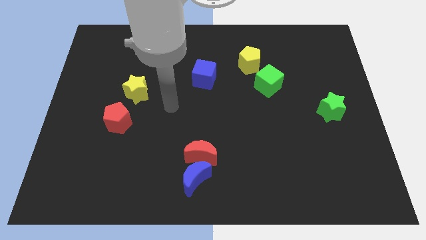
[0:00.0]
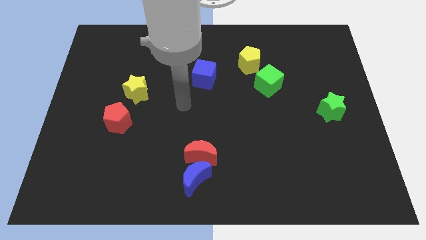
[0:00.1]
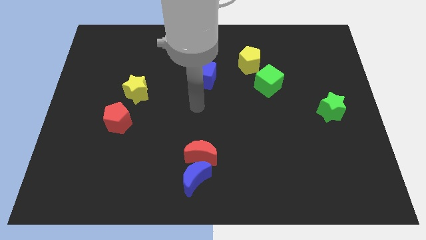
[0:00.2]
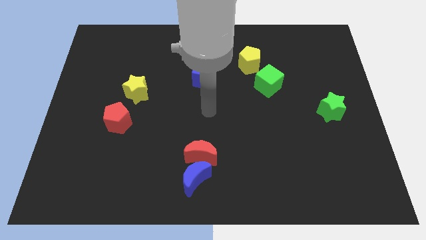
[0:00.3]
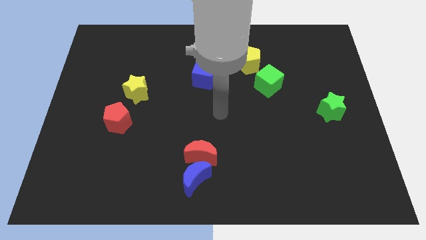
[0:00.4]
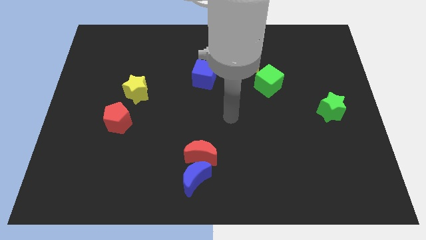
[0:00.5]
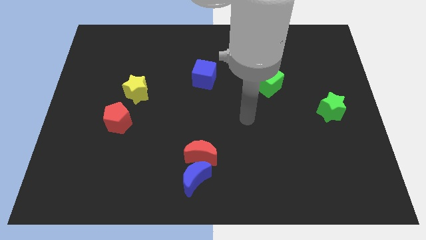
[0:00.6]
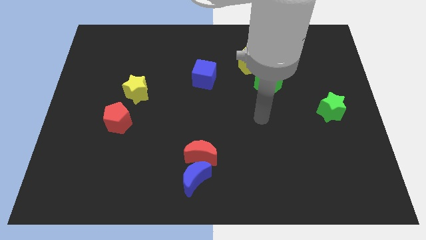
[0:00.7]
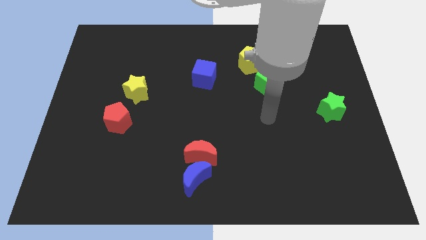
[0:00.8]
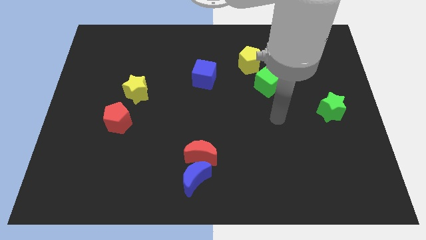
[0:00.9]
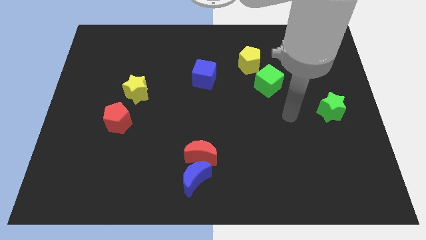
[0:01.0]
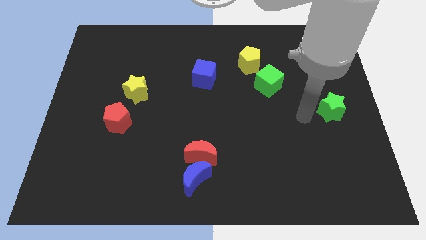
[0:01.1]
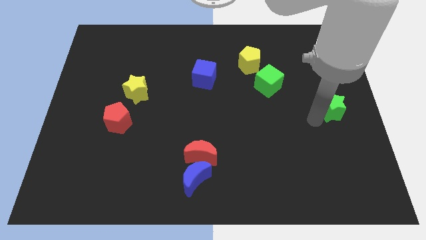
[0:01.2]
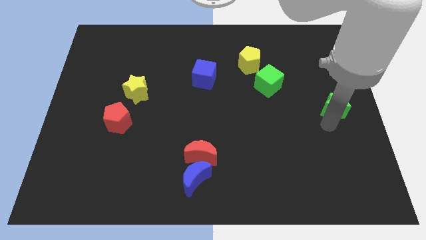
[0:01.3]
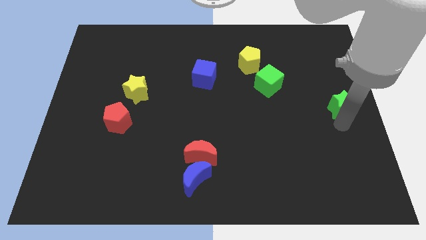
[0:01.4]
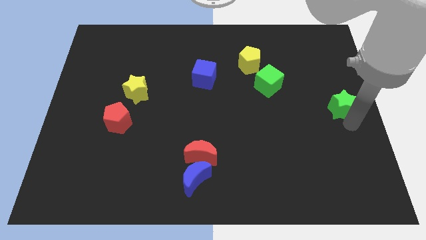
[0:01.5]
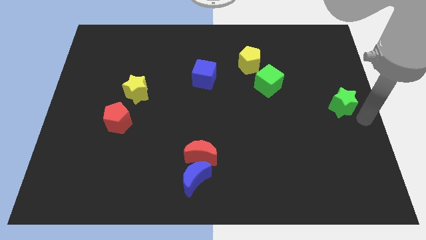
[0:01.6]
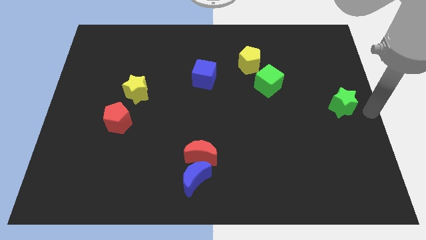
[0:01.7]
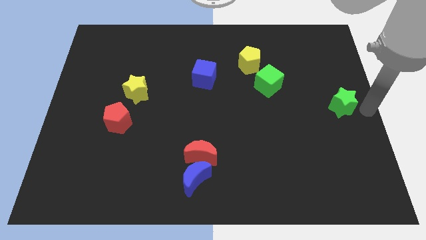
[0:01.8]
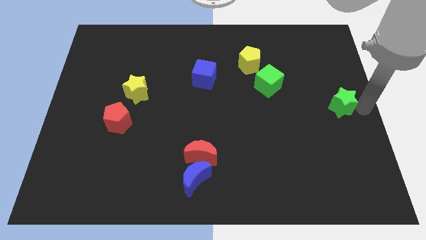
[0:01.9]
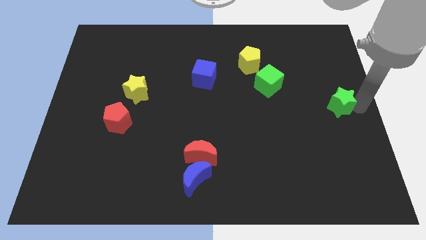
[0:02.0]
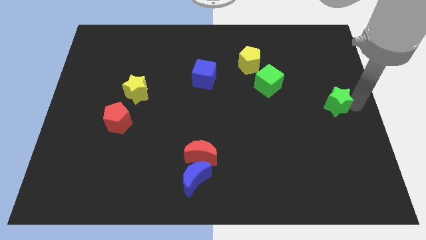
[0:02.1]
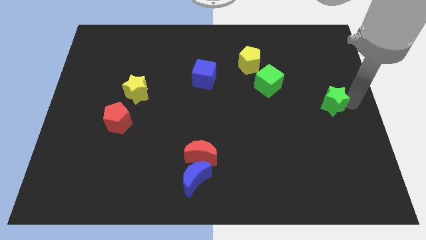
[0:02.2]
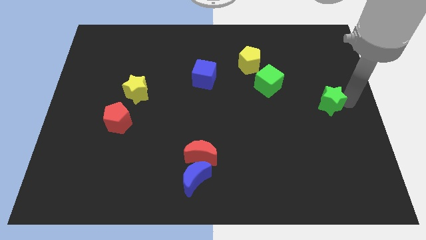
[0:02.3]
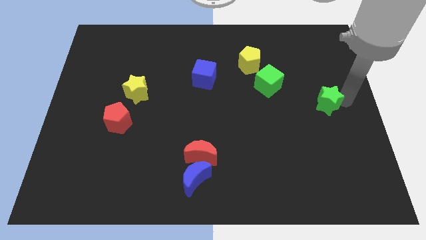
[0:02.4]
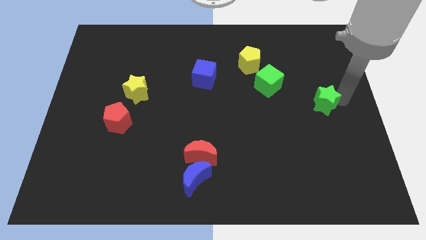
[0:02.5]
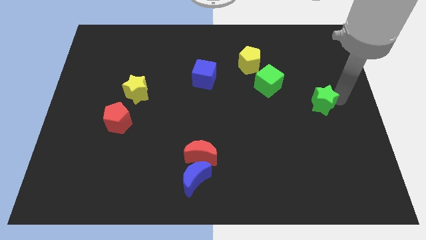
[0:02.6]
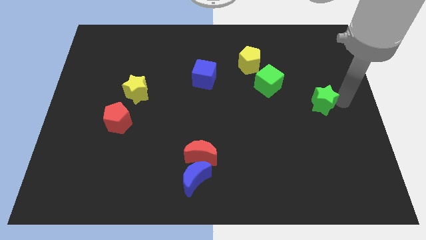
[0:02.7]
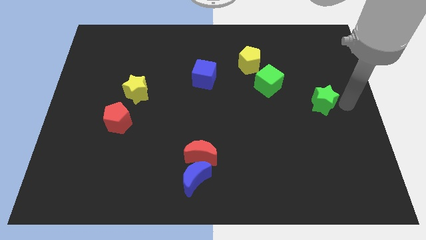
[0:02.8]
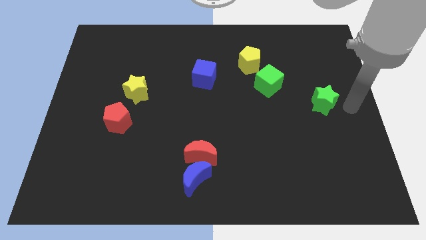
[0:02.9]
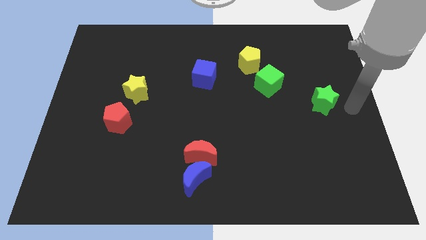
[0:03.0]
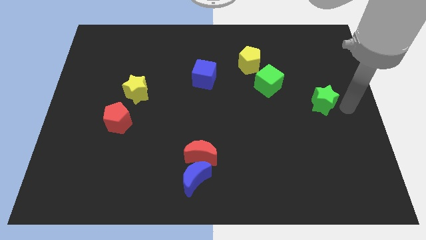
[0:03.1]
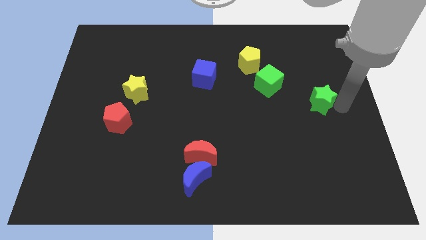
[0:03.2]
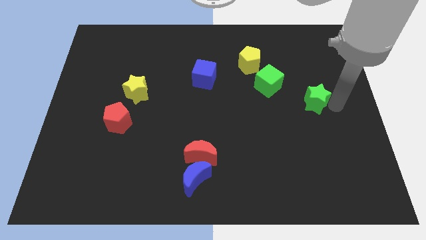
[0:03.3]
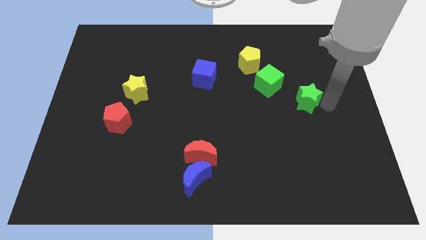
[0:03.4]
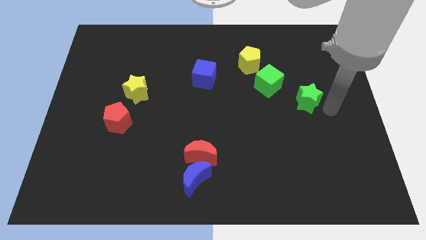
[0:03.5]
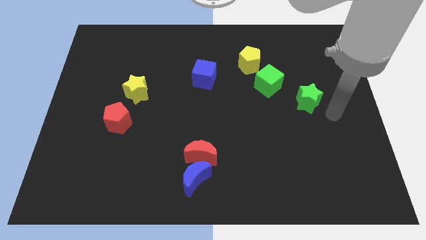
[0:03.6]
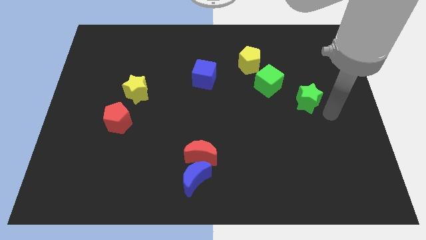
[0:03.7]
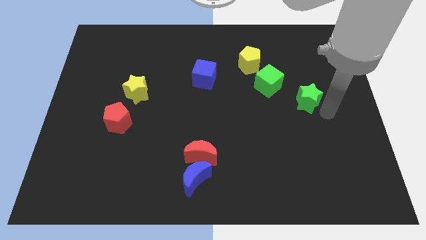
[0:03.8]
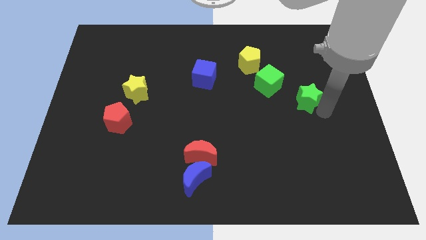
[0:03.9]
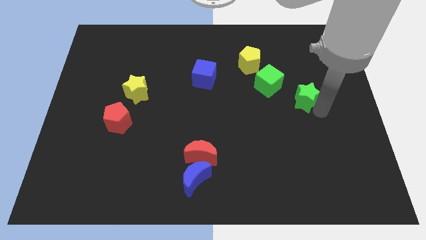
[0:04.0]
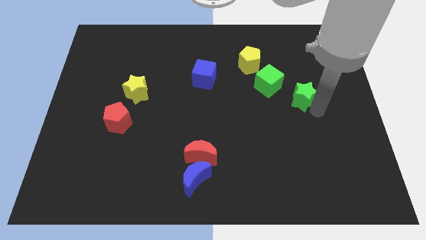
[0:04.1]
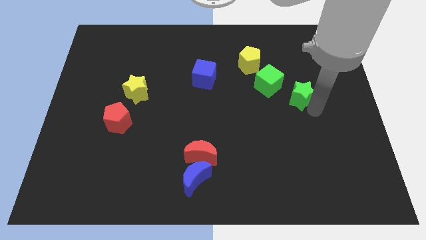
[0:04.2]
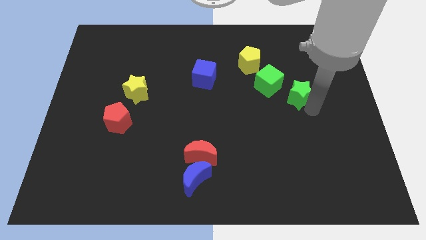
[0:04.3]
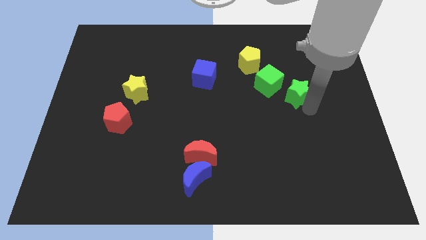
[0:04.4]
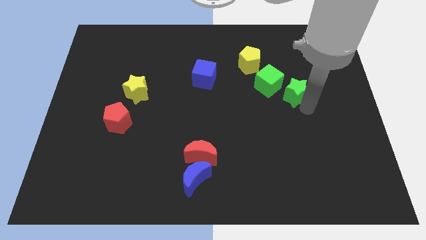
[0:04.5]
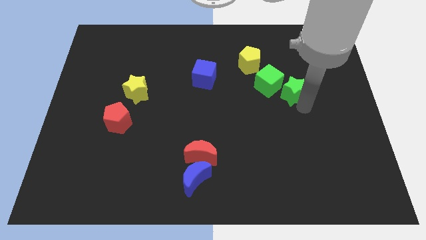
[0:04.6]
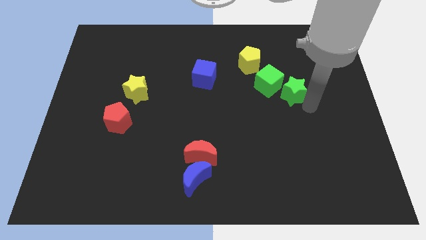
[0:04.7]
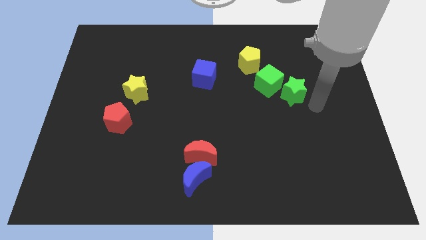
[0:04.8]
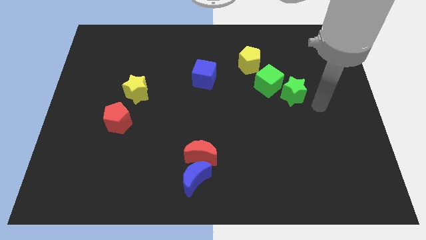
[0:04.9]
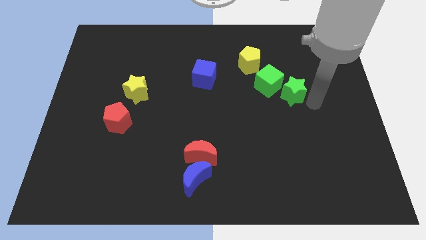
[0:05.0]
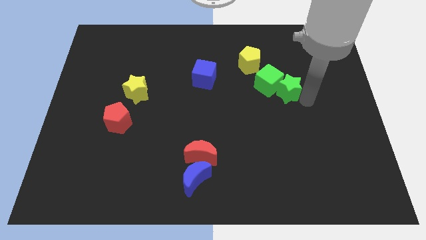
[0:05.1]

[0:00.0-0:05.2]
slide the green star next to the green cube

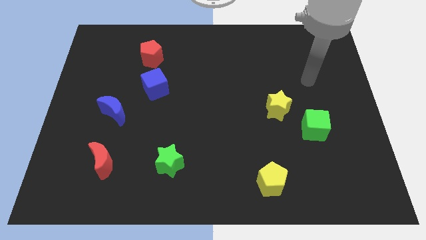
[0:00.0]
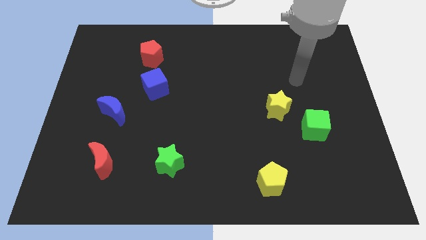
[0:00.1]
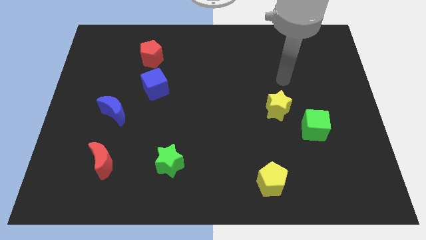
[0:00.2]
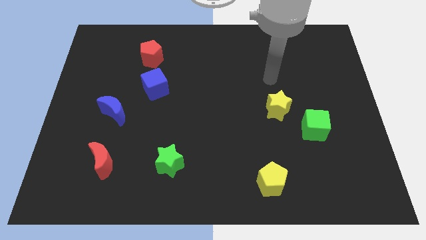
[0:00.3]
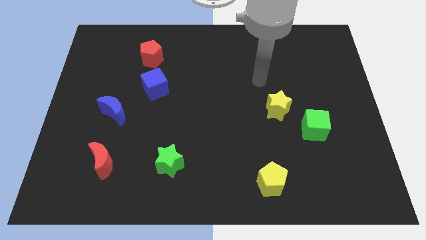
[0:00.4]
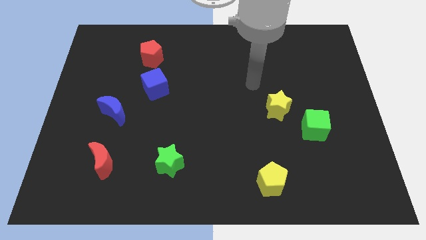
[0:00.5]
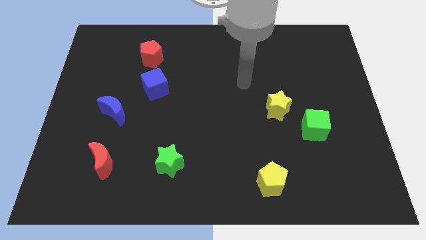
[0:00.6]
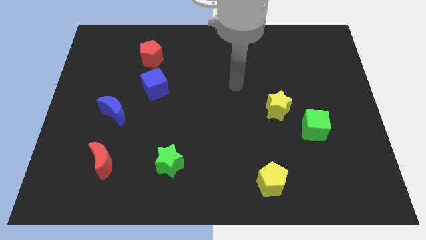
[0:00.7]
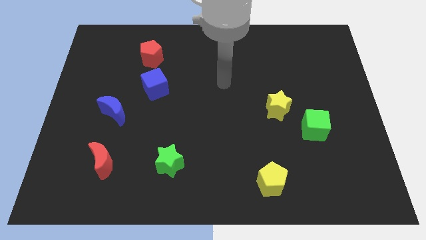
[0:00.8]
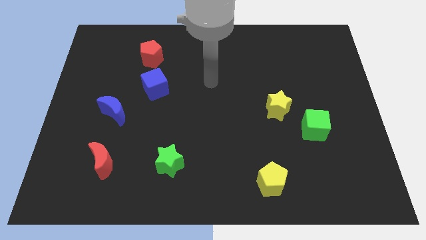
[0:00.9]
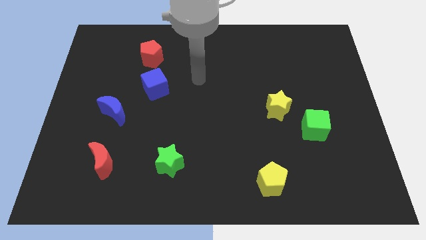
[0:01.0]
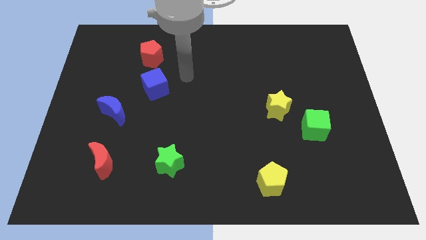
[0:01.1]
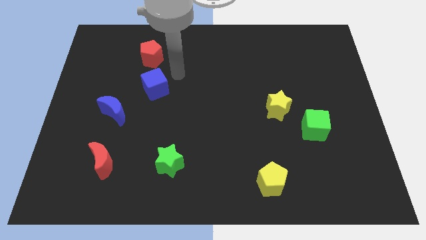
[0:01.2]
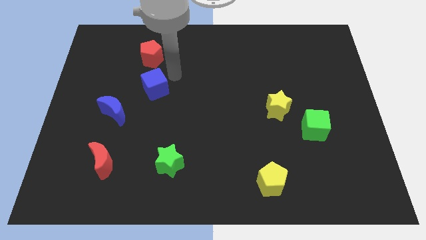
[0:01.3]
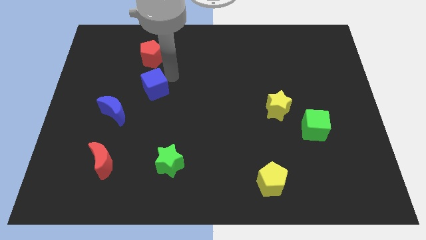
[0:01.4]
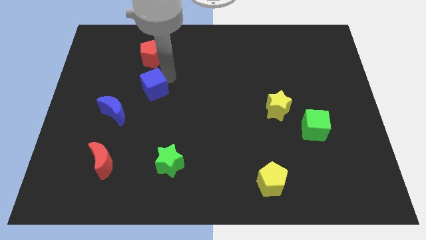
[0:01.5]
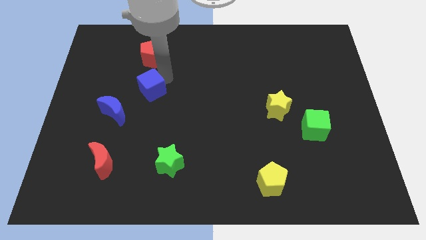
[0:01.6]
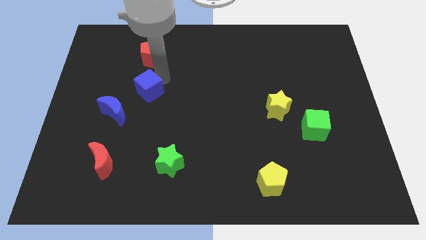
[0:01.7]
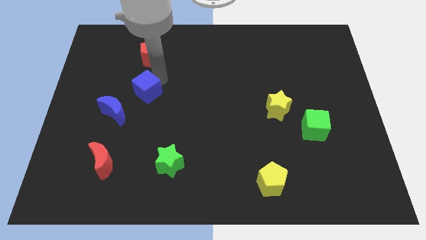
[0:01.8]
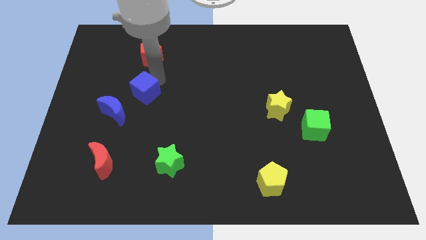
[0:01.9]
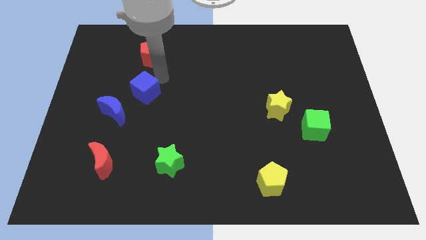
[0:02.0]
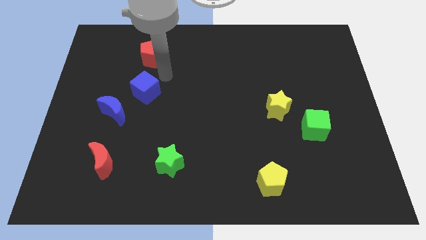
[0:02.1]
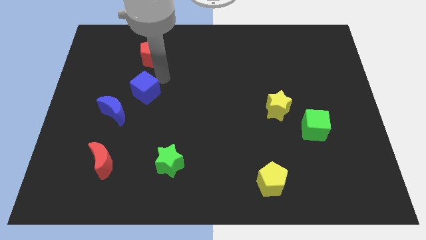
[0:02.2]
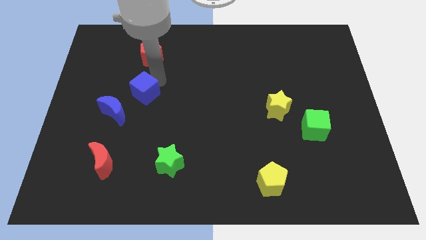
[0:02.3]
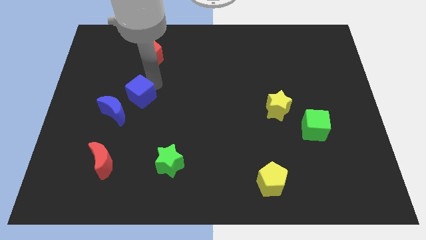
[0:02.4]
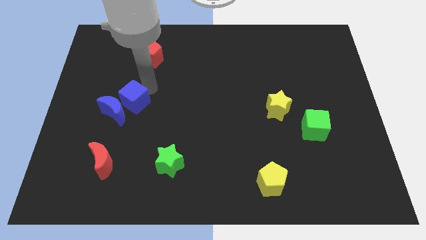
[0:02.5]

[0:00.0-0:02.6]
push the blue cube close to the blue moon
